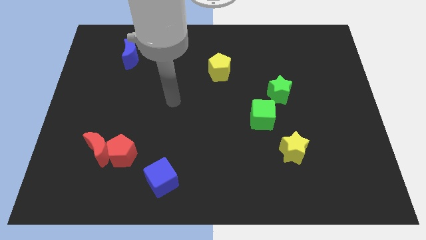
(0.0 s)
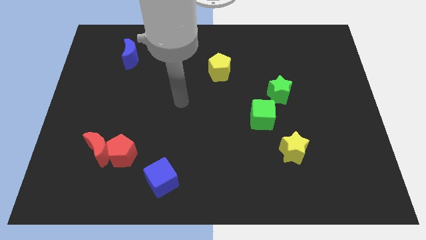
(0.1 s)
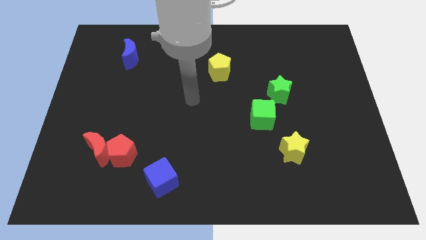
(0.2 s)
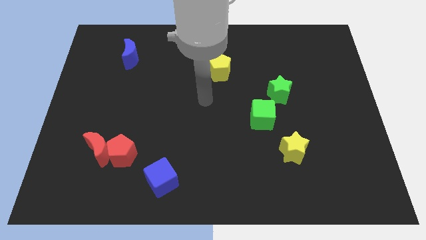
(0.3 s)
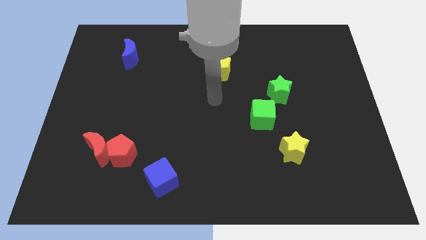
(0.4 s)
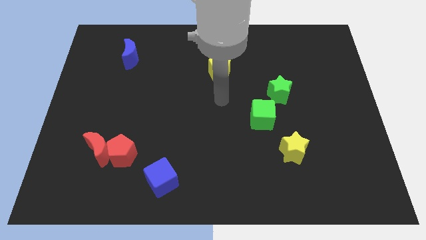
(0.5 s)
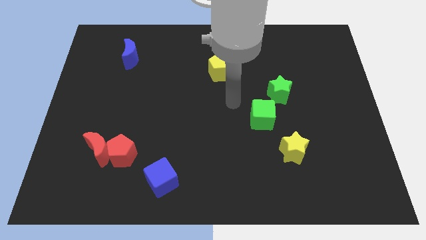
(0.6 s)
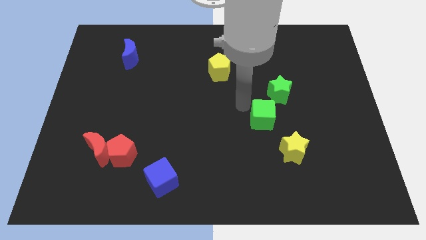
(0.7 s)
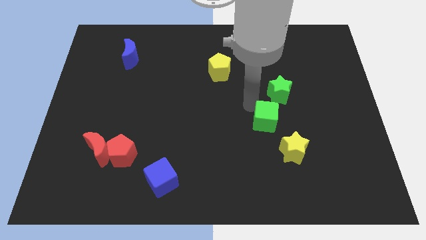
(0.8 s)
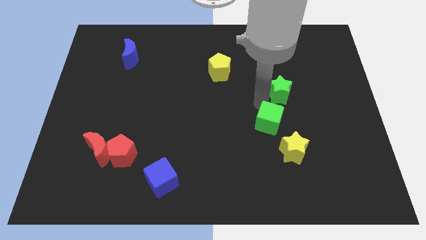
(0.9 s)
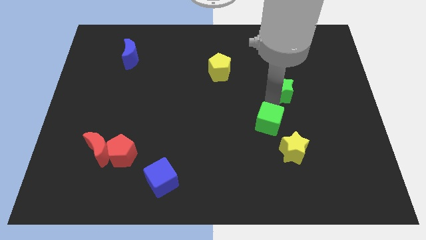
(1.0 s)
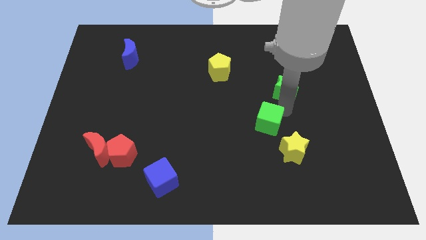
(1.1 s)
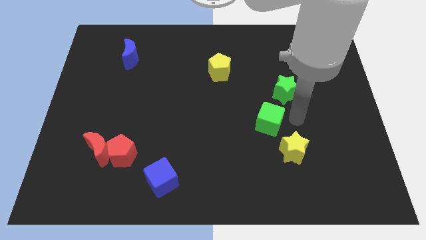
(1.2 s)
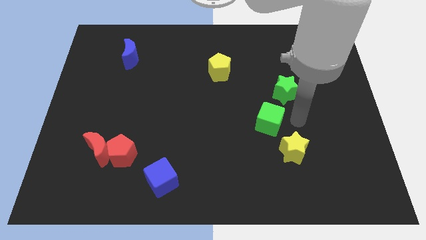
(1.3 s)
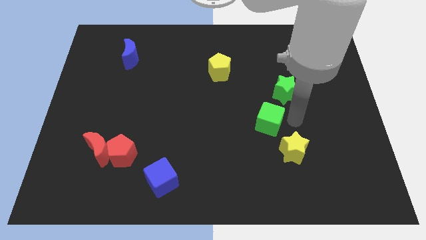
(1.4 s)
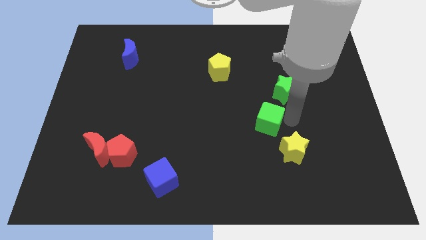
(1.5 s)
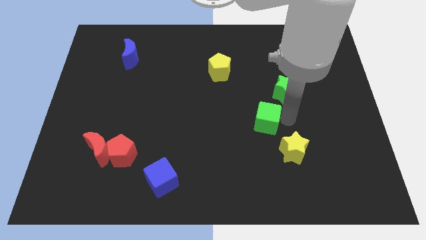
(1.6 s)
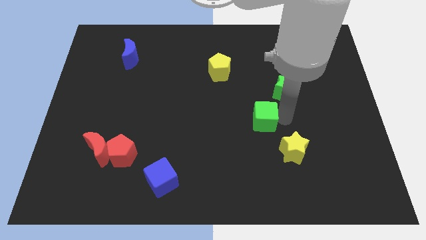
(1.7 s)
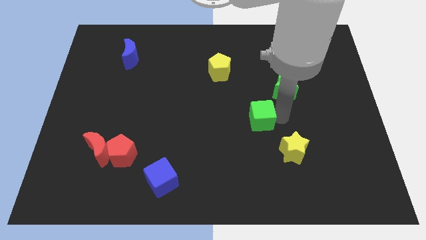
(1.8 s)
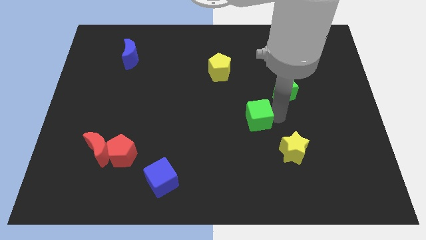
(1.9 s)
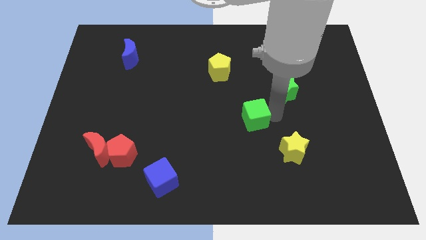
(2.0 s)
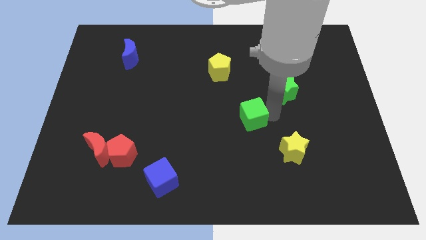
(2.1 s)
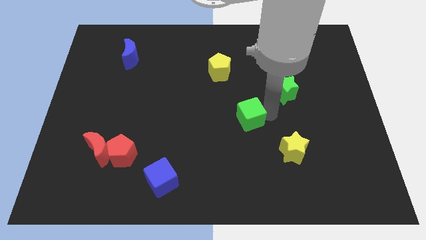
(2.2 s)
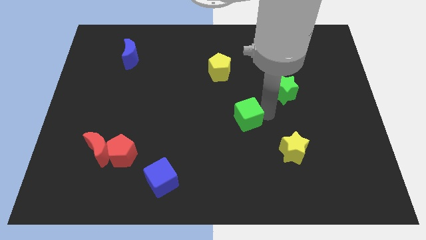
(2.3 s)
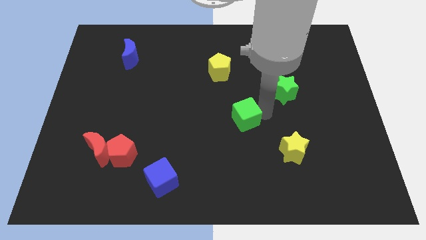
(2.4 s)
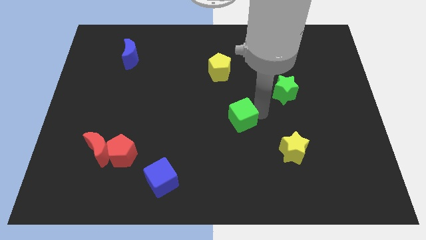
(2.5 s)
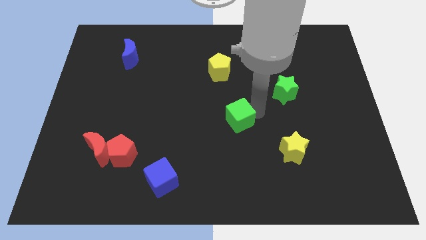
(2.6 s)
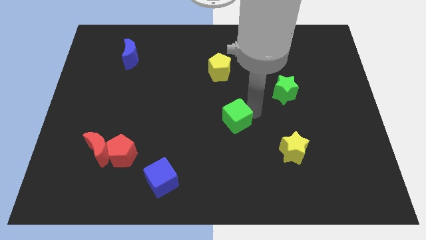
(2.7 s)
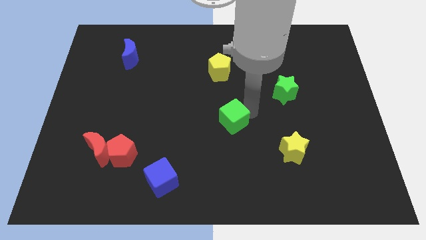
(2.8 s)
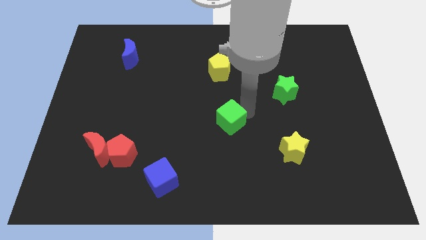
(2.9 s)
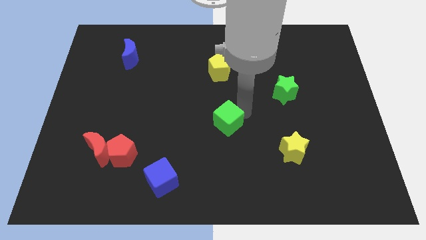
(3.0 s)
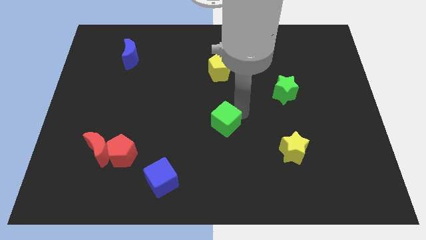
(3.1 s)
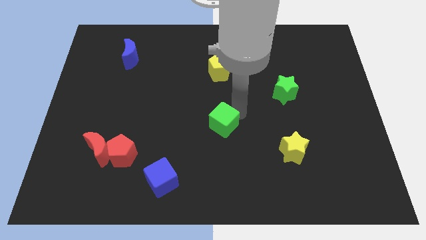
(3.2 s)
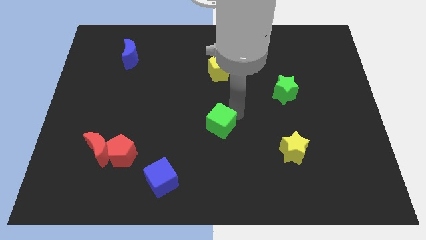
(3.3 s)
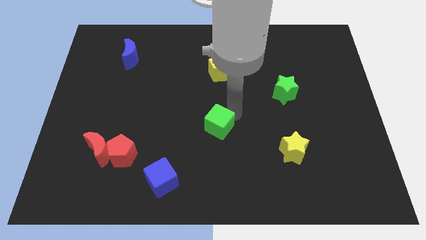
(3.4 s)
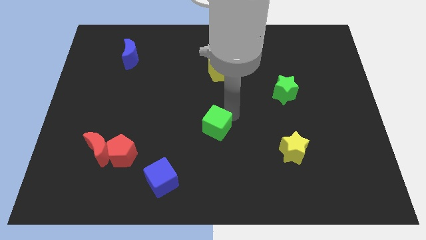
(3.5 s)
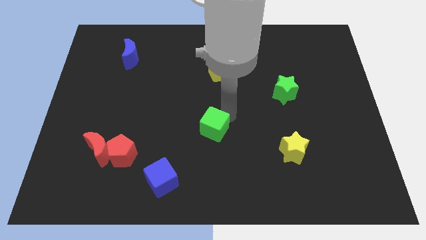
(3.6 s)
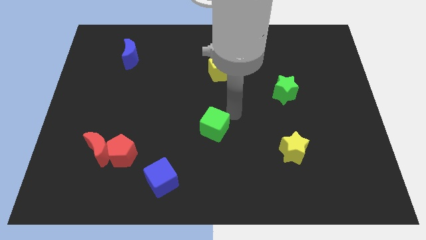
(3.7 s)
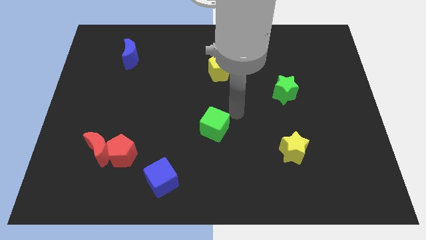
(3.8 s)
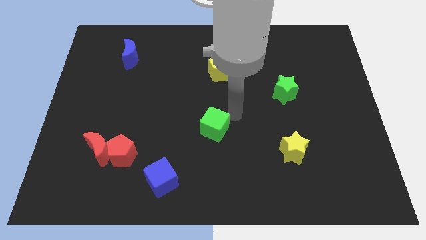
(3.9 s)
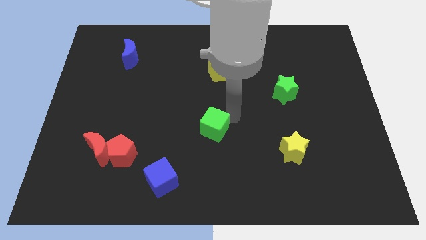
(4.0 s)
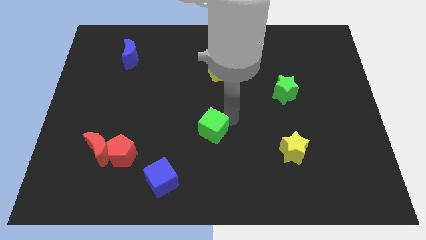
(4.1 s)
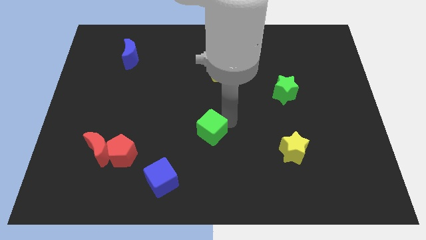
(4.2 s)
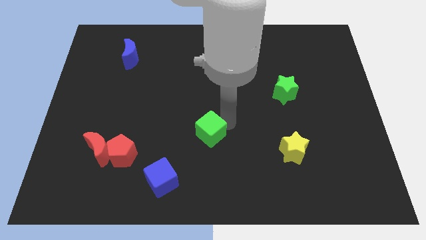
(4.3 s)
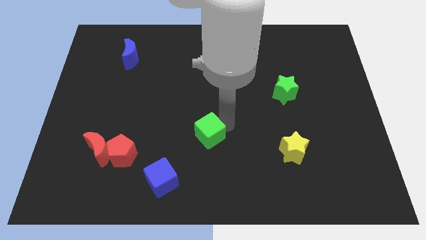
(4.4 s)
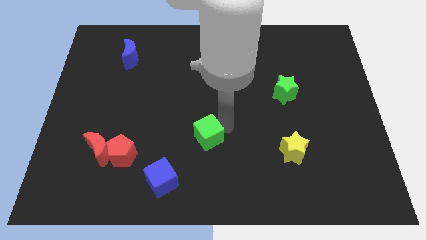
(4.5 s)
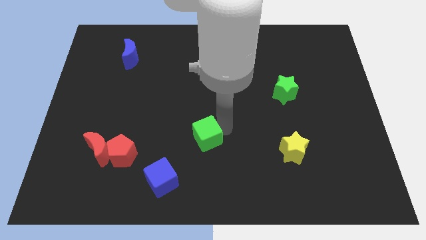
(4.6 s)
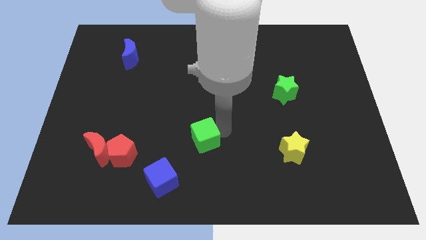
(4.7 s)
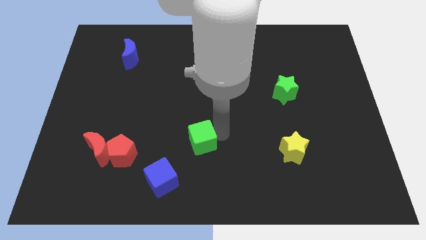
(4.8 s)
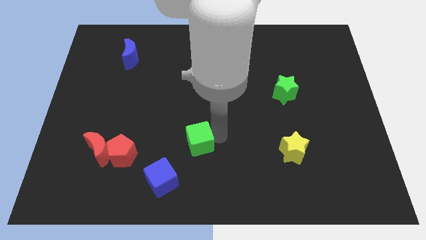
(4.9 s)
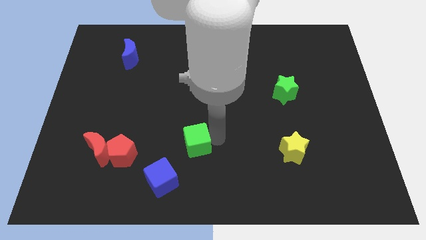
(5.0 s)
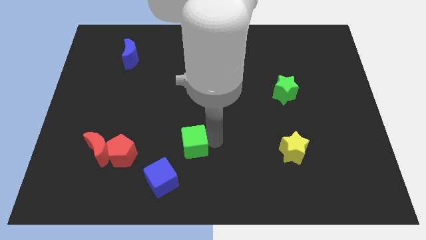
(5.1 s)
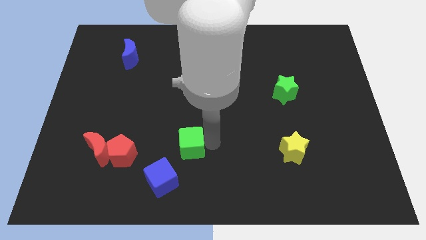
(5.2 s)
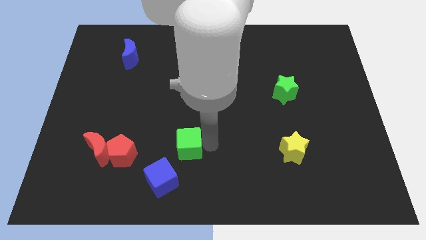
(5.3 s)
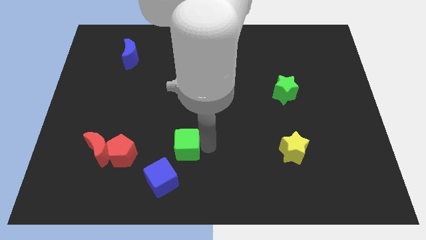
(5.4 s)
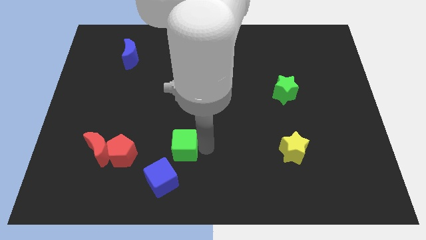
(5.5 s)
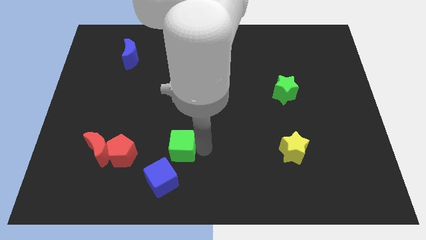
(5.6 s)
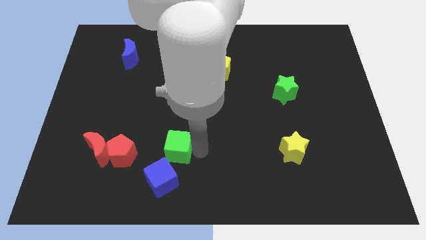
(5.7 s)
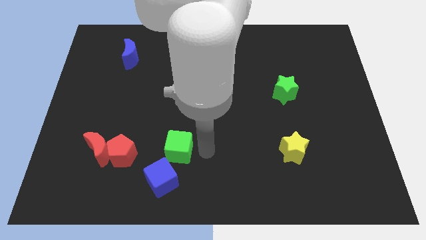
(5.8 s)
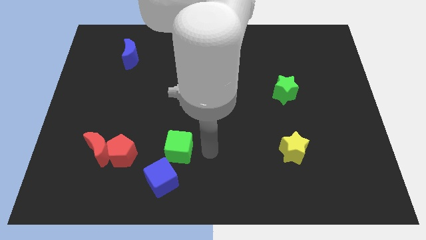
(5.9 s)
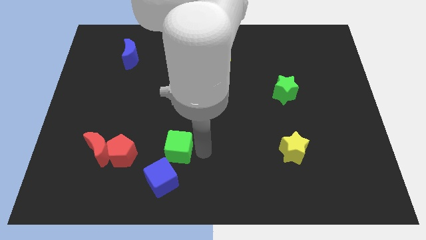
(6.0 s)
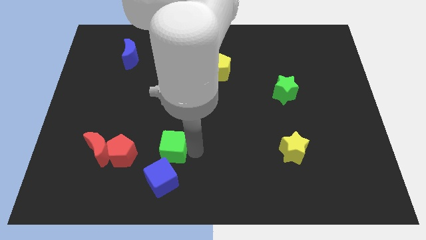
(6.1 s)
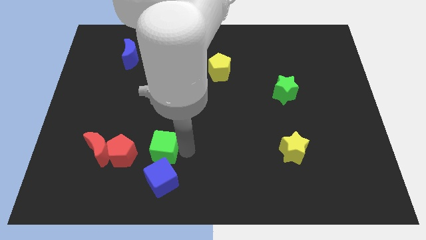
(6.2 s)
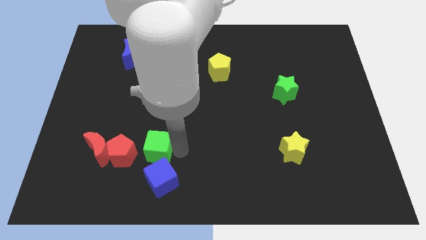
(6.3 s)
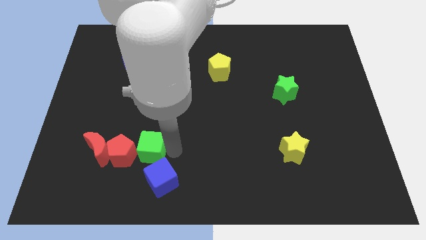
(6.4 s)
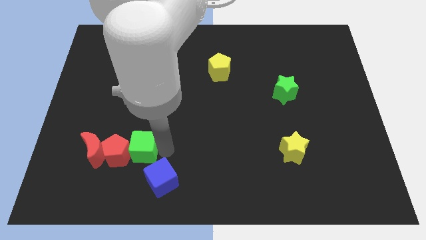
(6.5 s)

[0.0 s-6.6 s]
put the green cube close to the red pentagon

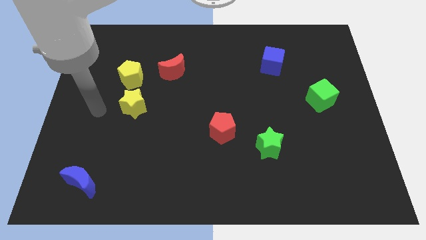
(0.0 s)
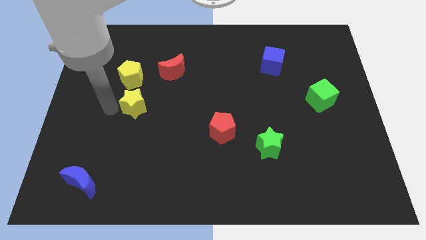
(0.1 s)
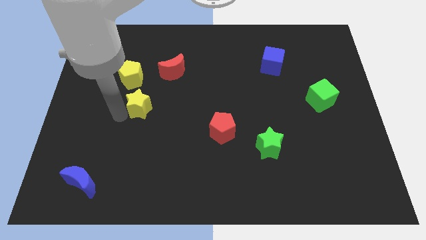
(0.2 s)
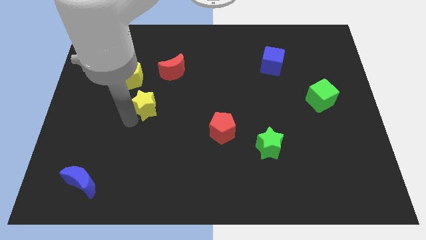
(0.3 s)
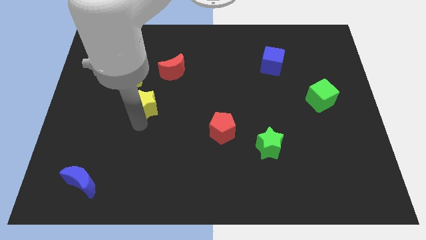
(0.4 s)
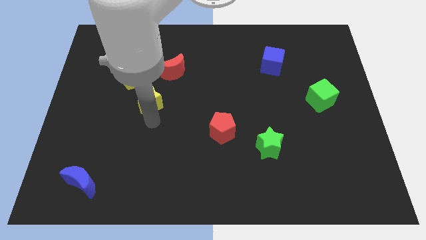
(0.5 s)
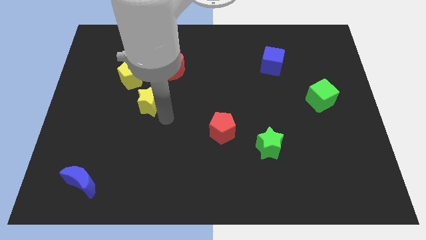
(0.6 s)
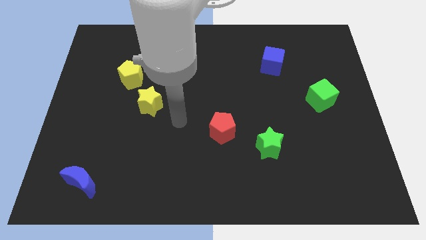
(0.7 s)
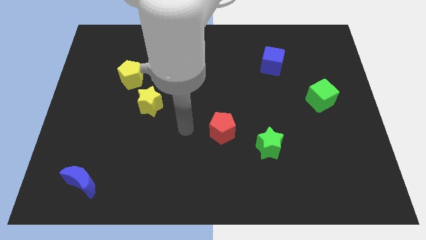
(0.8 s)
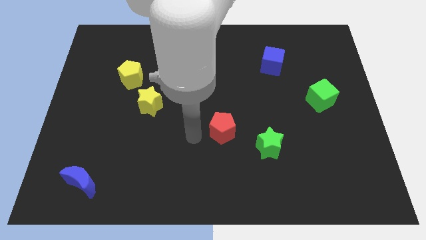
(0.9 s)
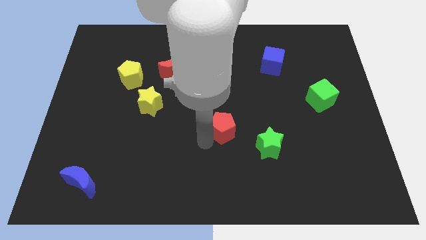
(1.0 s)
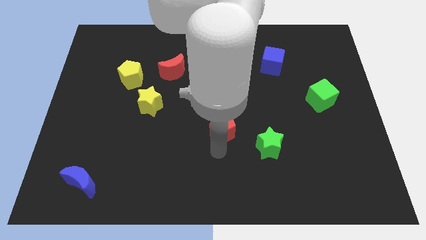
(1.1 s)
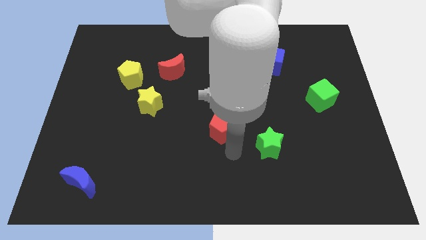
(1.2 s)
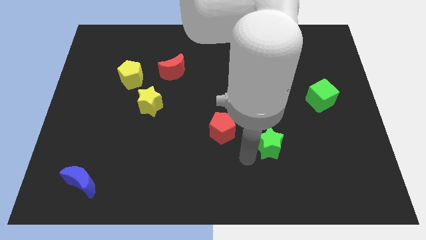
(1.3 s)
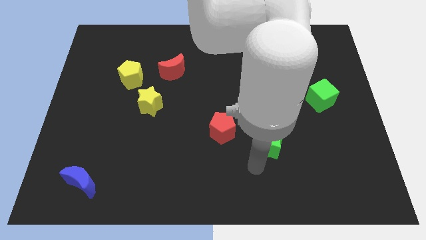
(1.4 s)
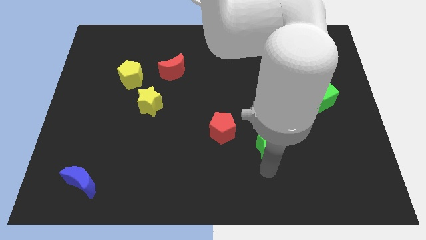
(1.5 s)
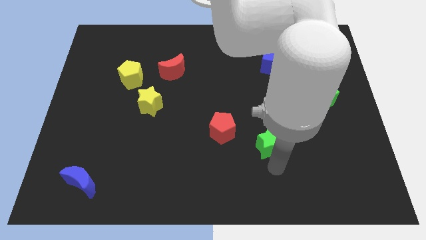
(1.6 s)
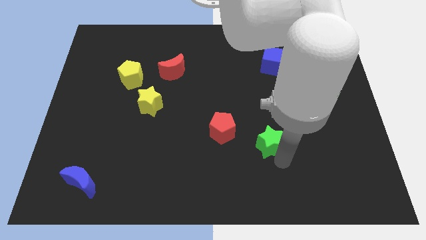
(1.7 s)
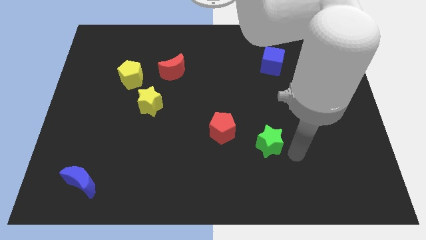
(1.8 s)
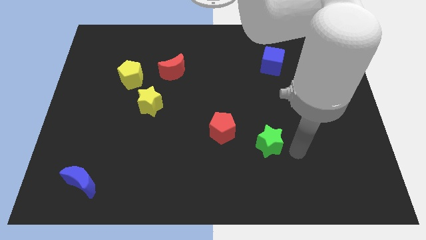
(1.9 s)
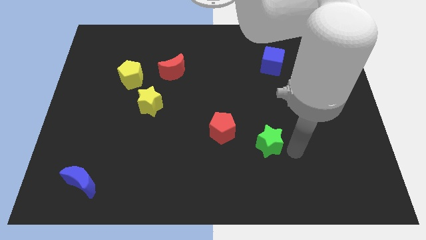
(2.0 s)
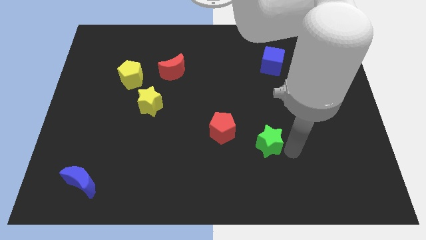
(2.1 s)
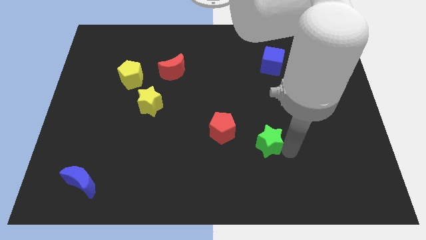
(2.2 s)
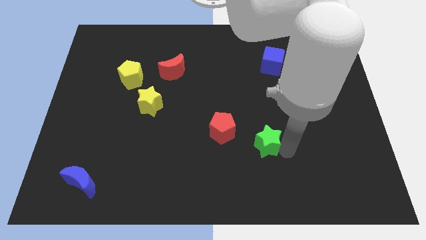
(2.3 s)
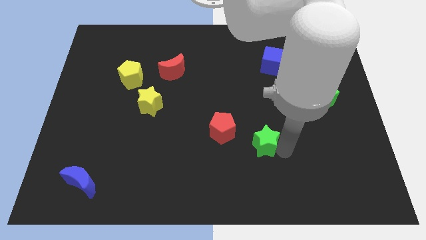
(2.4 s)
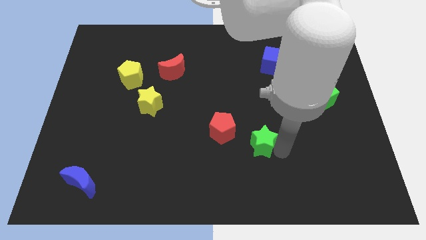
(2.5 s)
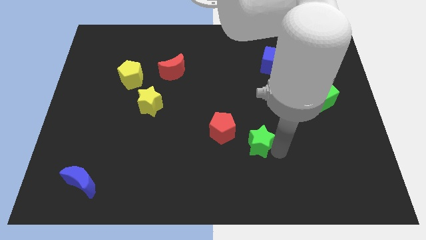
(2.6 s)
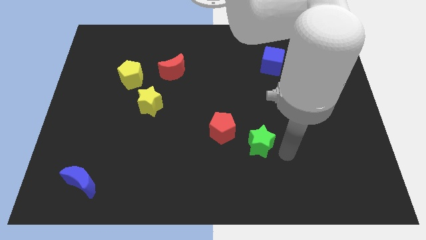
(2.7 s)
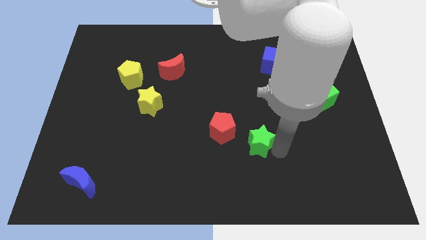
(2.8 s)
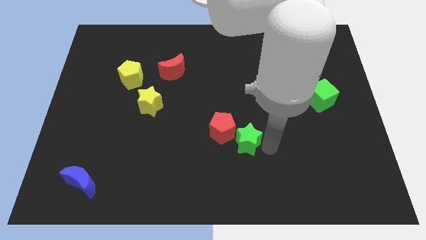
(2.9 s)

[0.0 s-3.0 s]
push the green star close to the red pentagon
